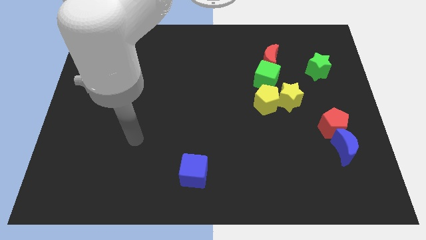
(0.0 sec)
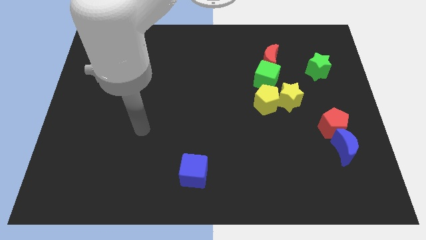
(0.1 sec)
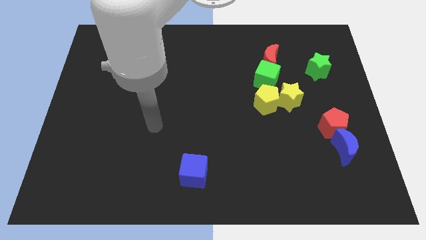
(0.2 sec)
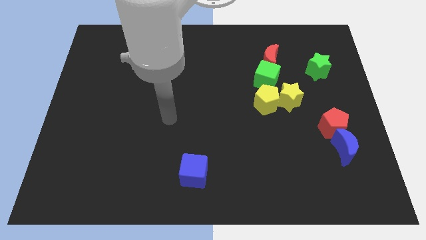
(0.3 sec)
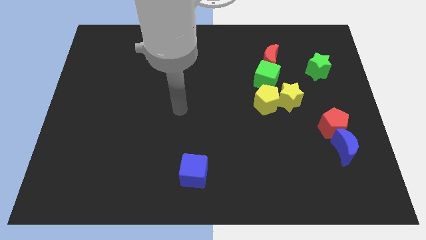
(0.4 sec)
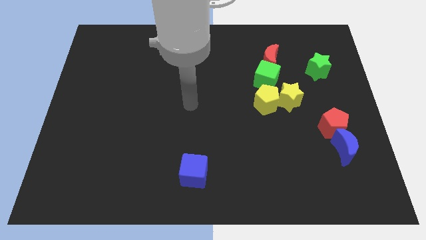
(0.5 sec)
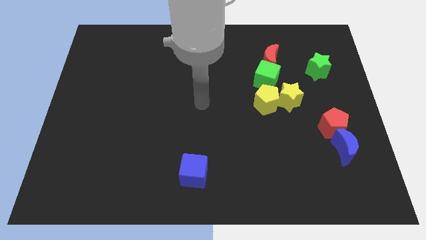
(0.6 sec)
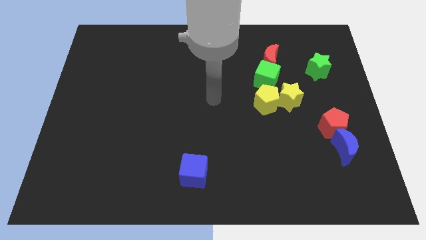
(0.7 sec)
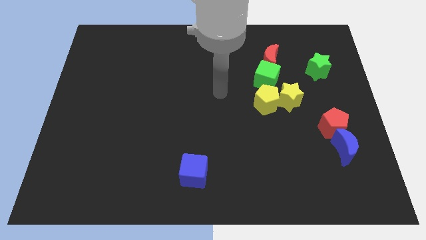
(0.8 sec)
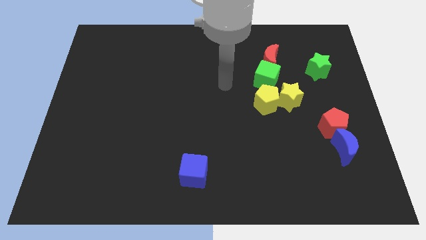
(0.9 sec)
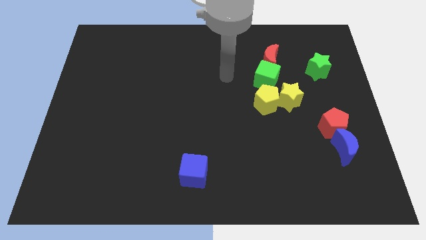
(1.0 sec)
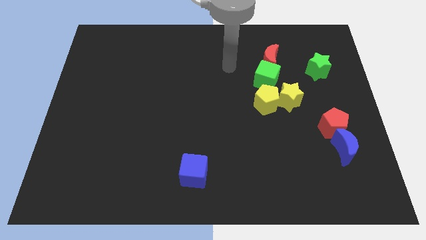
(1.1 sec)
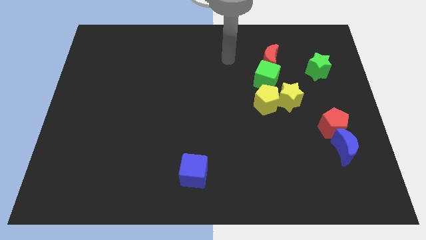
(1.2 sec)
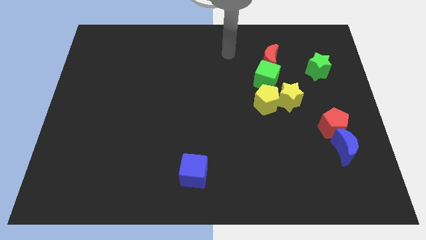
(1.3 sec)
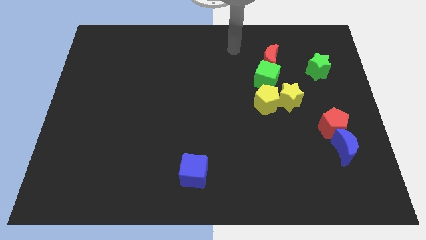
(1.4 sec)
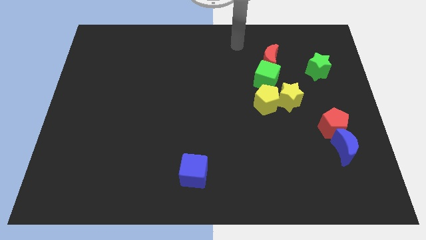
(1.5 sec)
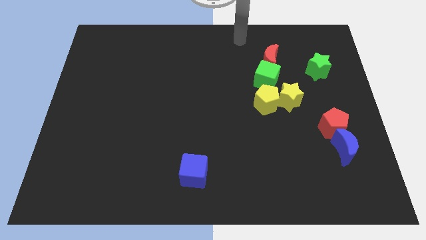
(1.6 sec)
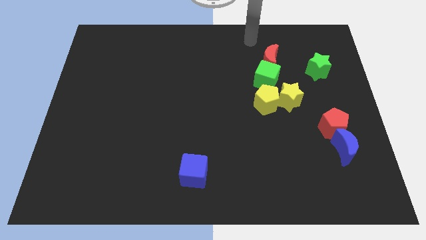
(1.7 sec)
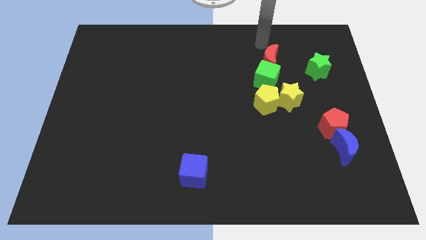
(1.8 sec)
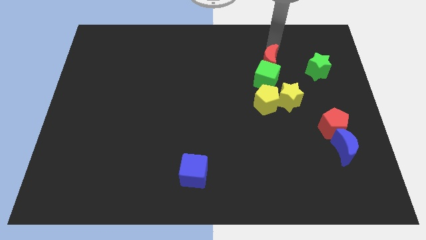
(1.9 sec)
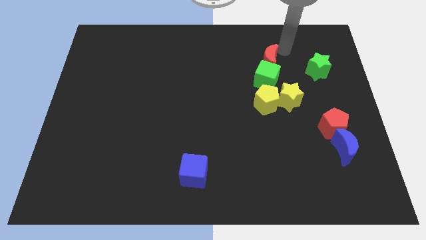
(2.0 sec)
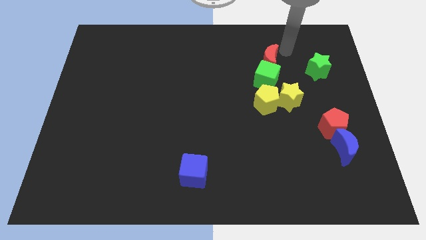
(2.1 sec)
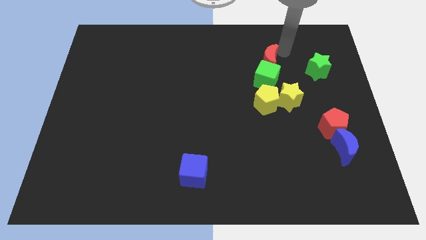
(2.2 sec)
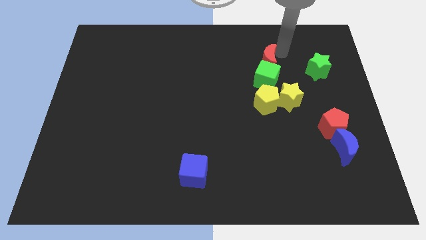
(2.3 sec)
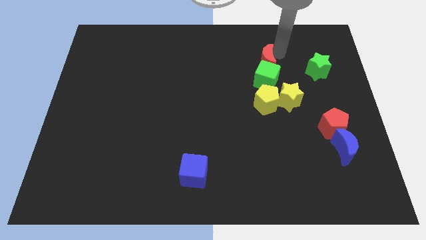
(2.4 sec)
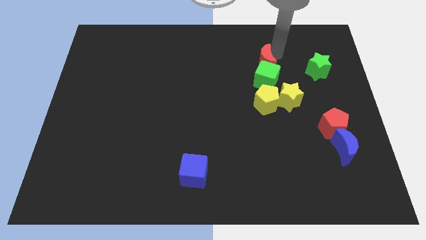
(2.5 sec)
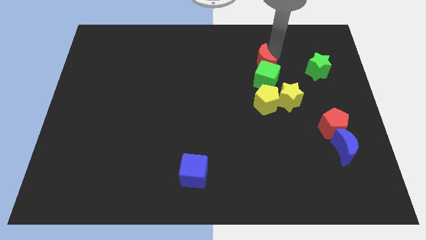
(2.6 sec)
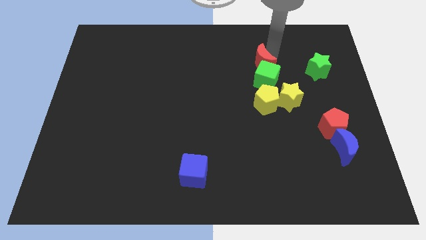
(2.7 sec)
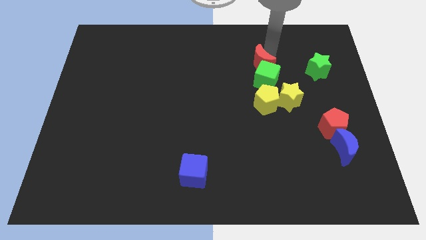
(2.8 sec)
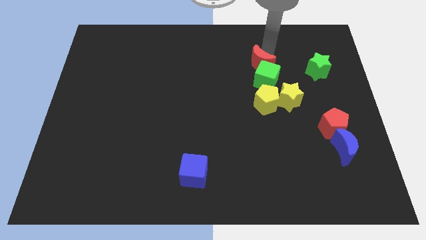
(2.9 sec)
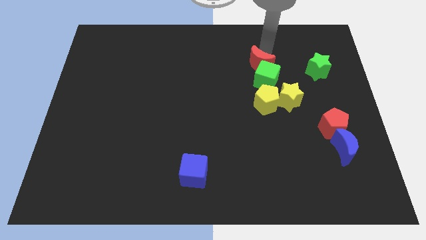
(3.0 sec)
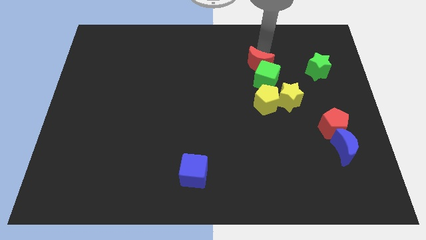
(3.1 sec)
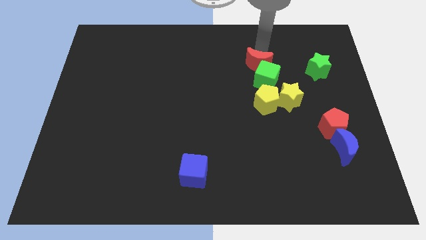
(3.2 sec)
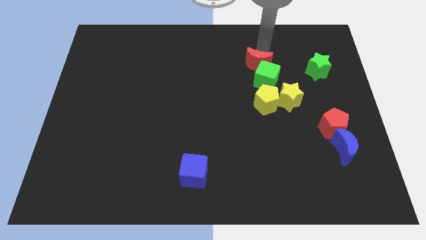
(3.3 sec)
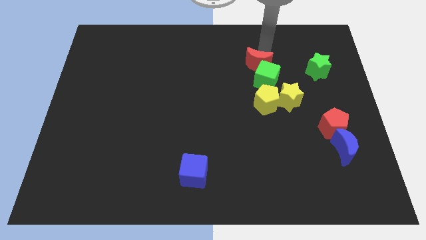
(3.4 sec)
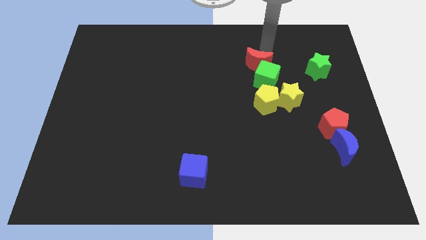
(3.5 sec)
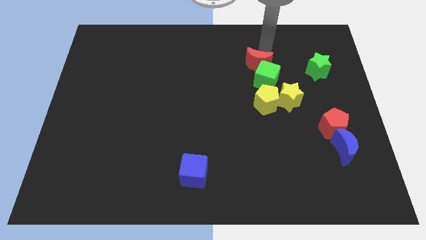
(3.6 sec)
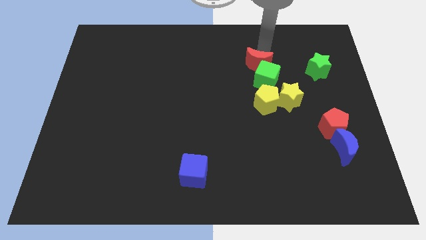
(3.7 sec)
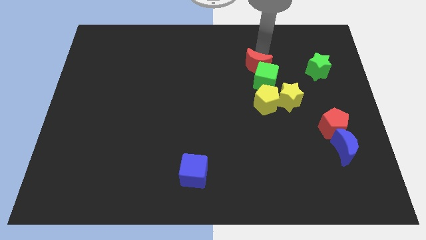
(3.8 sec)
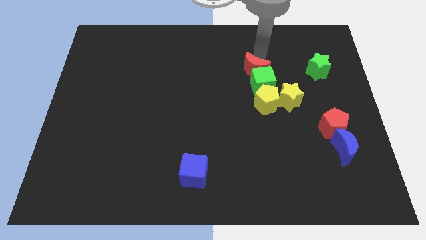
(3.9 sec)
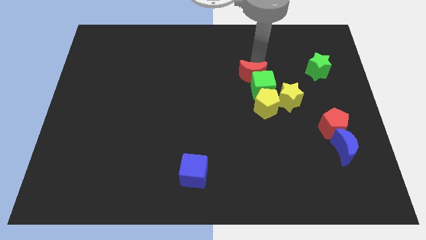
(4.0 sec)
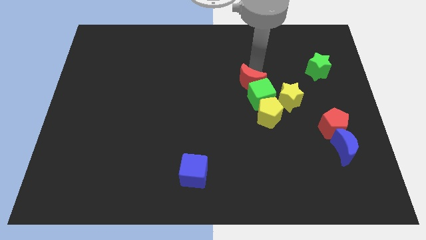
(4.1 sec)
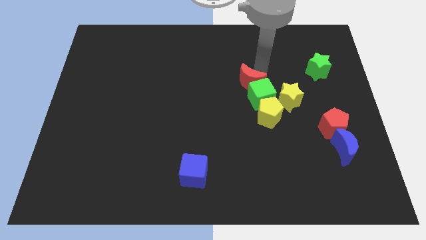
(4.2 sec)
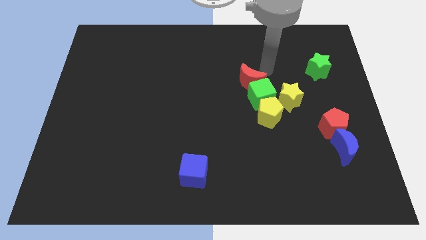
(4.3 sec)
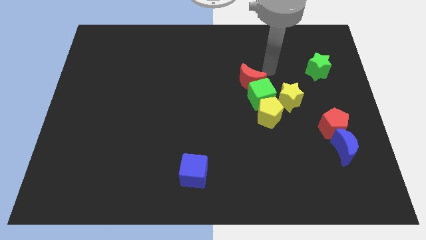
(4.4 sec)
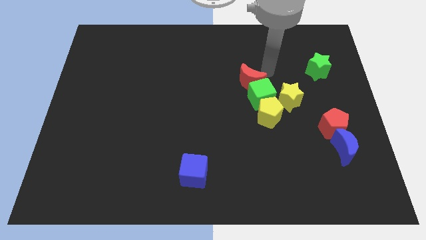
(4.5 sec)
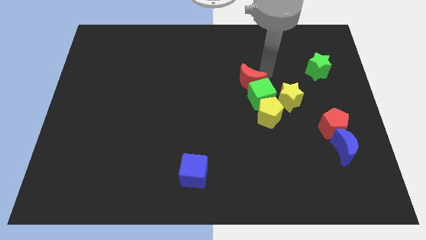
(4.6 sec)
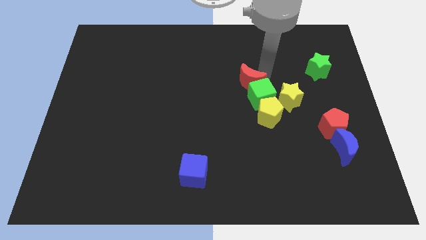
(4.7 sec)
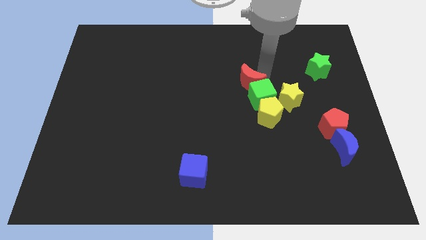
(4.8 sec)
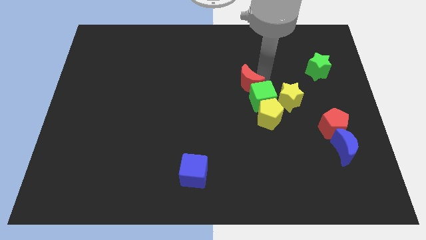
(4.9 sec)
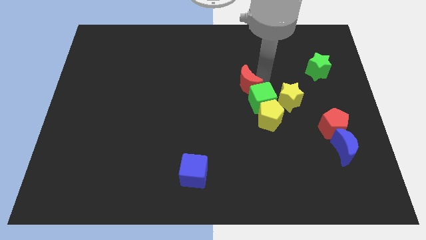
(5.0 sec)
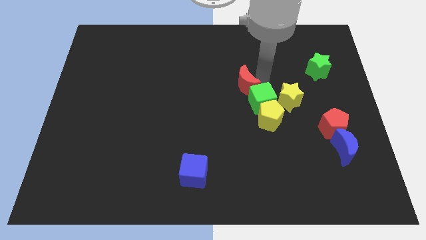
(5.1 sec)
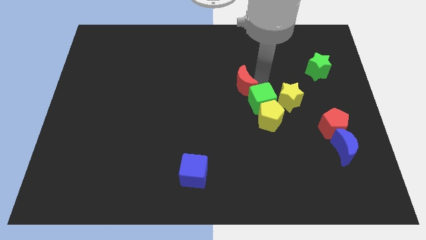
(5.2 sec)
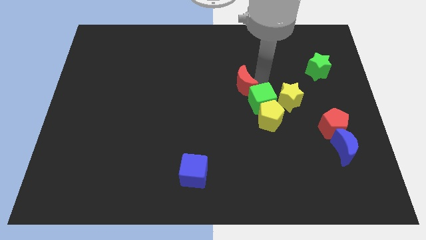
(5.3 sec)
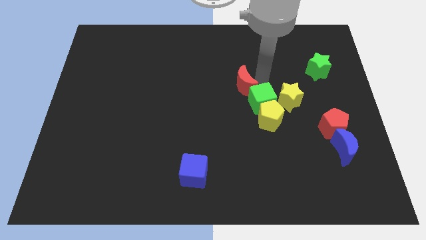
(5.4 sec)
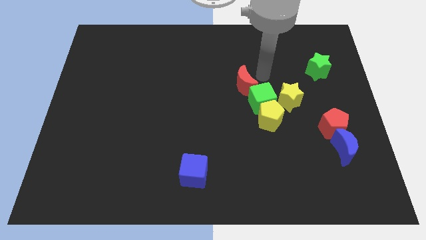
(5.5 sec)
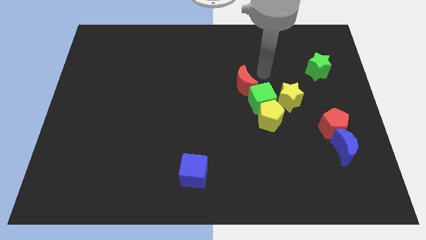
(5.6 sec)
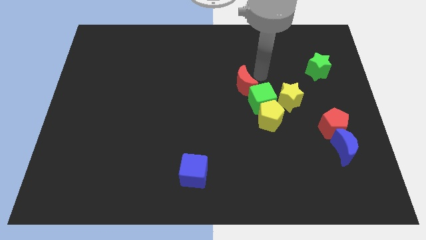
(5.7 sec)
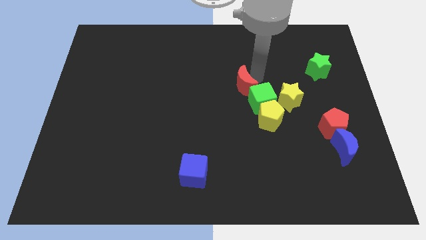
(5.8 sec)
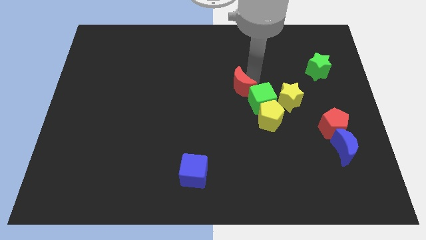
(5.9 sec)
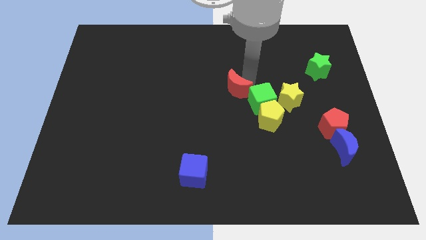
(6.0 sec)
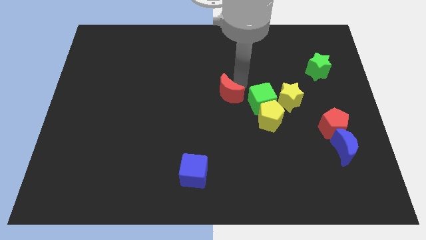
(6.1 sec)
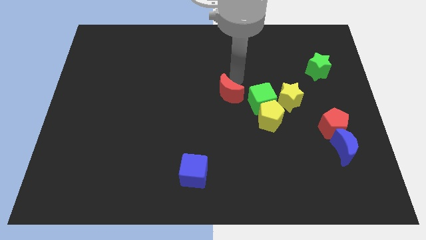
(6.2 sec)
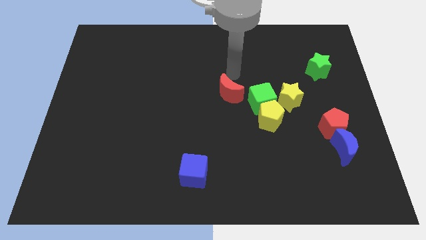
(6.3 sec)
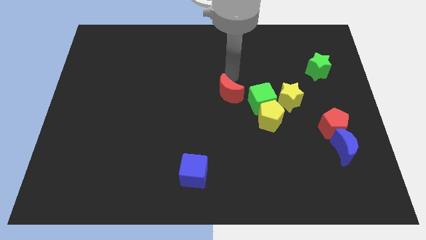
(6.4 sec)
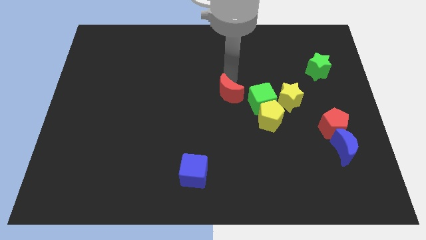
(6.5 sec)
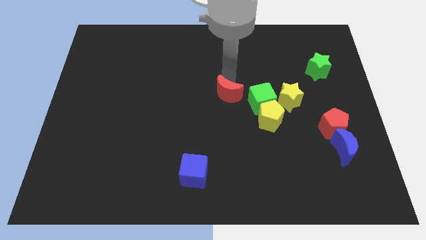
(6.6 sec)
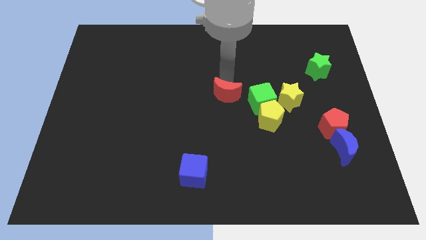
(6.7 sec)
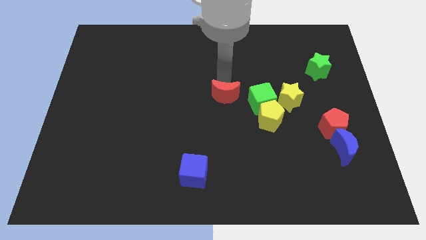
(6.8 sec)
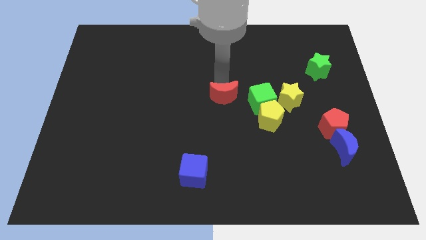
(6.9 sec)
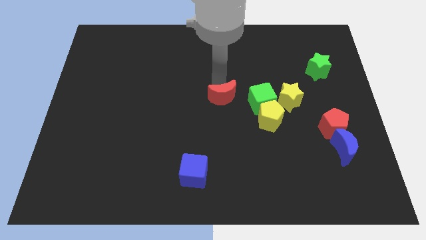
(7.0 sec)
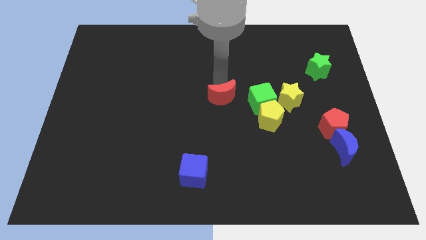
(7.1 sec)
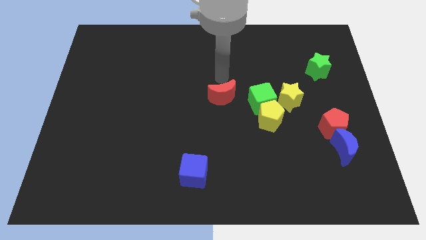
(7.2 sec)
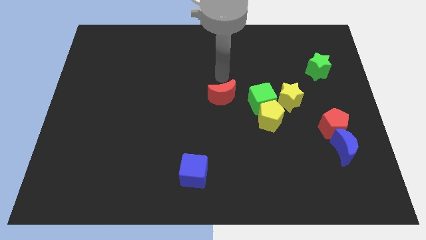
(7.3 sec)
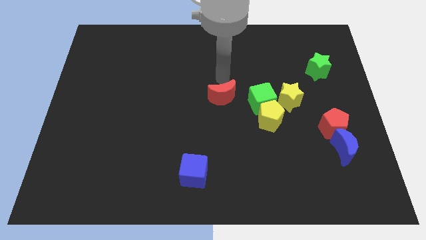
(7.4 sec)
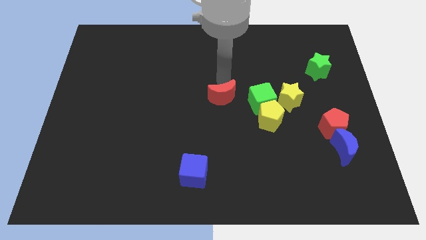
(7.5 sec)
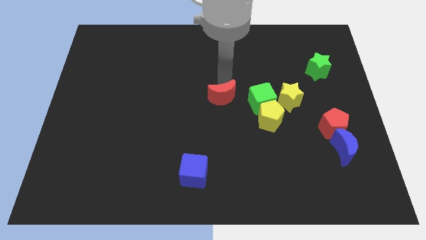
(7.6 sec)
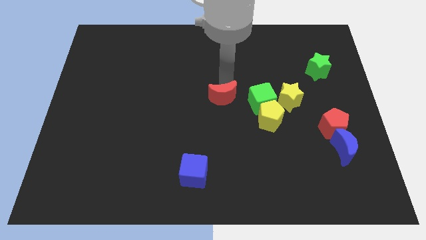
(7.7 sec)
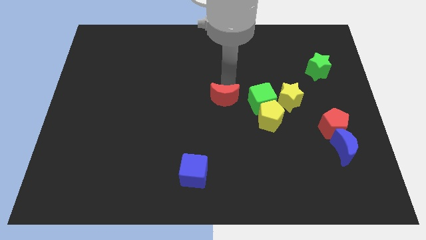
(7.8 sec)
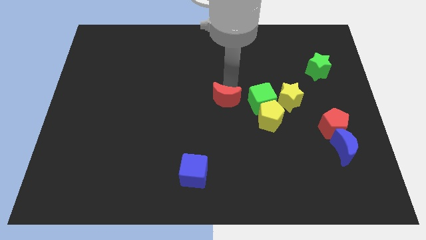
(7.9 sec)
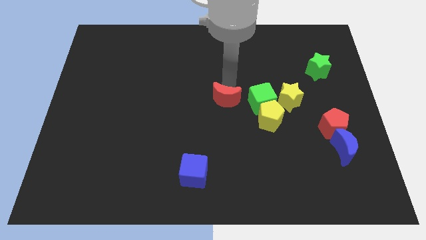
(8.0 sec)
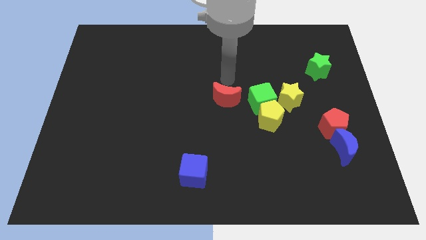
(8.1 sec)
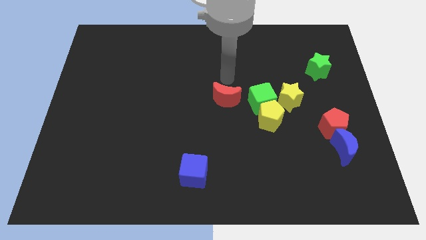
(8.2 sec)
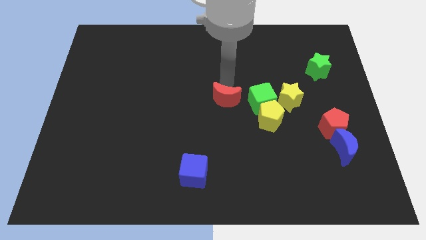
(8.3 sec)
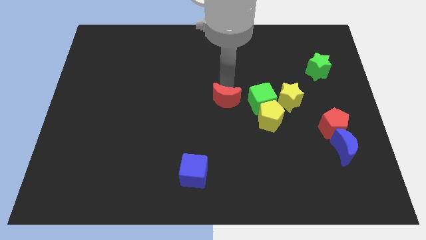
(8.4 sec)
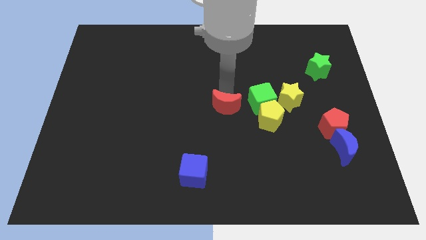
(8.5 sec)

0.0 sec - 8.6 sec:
push the red moon left of the yellow pentagon
